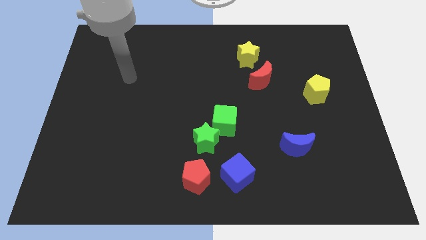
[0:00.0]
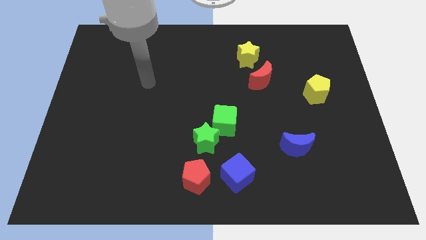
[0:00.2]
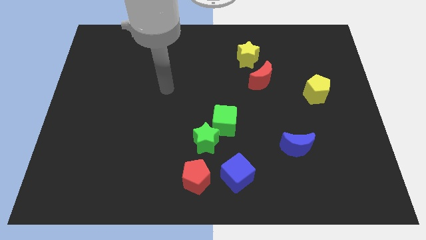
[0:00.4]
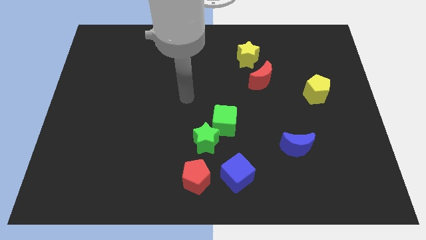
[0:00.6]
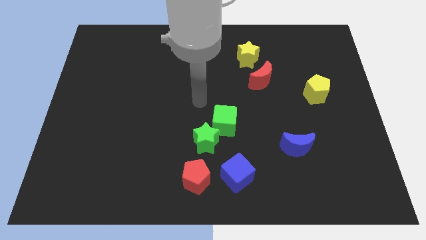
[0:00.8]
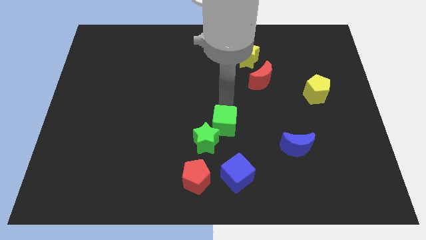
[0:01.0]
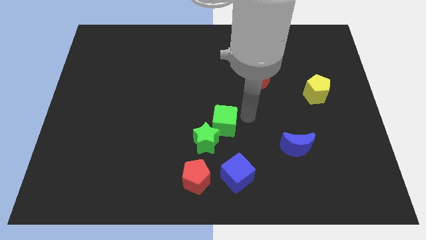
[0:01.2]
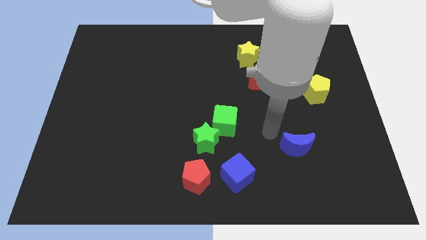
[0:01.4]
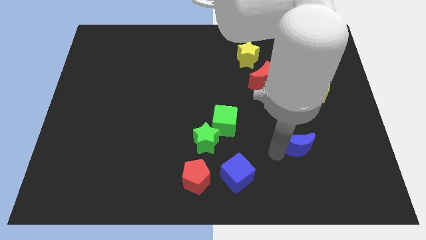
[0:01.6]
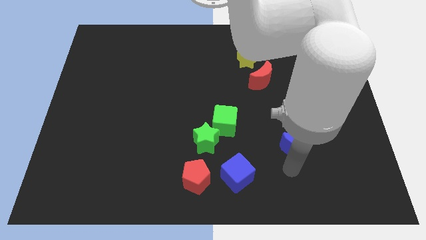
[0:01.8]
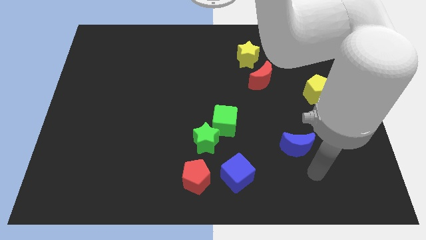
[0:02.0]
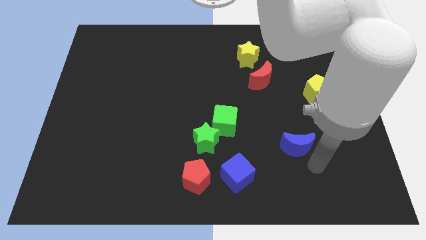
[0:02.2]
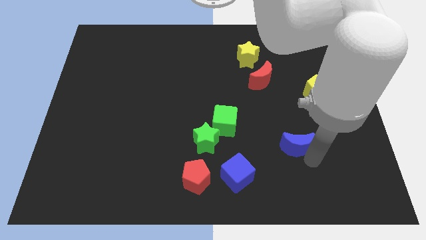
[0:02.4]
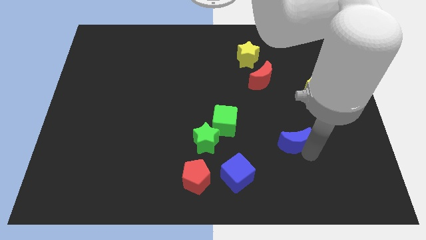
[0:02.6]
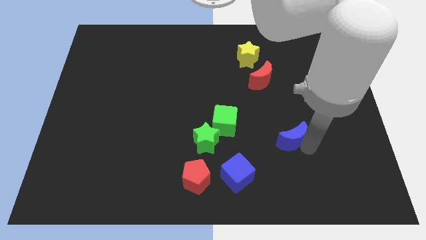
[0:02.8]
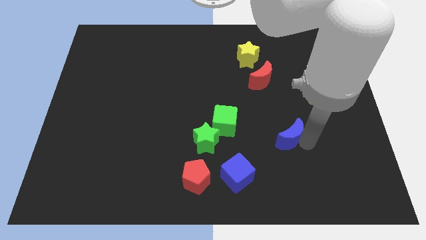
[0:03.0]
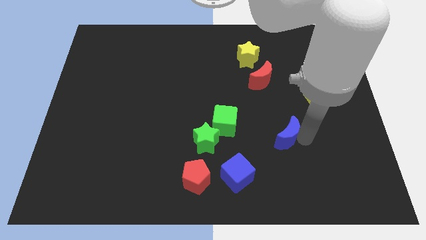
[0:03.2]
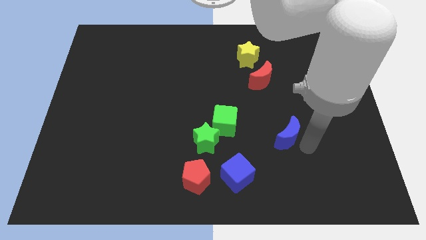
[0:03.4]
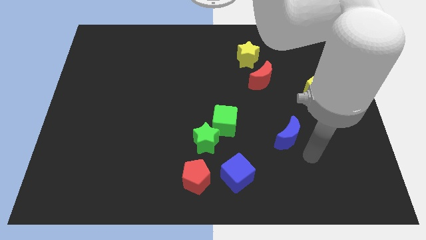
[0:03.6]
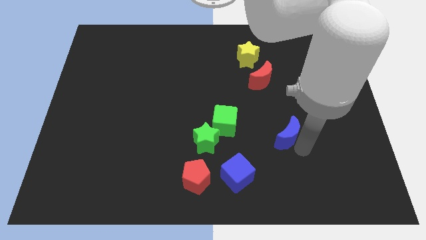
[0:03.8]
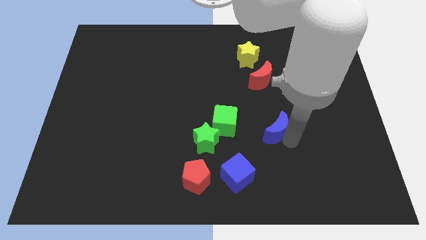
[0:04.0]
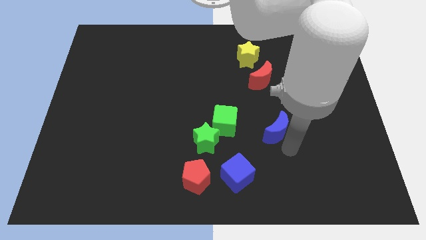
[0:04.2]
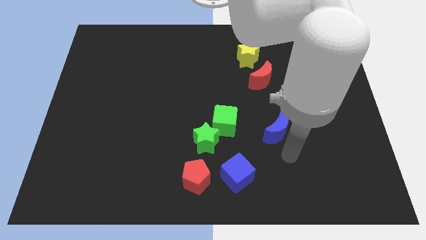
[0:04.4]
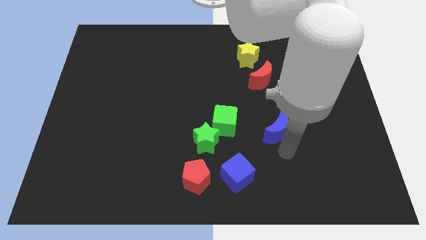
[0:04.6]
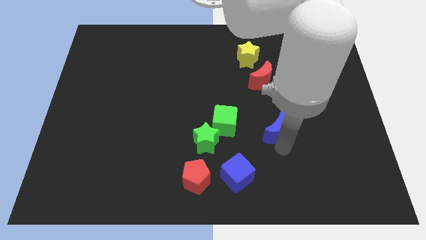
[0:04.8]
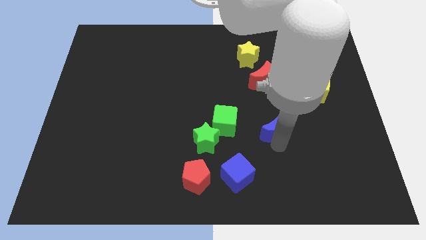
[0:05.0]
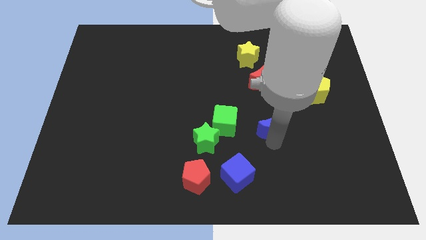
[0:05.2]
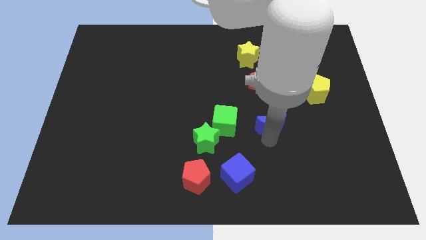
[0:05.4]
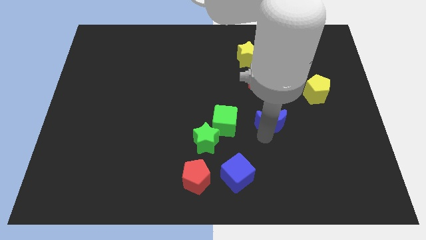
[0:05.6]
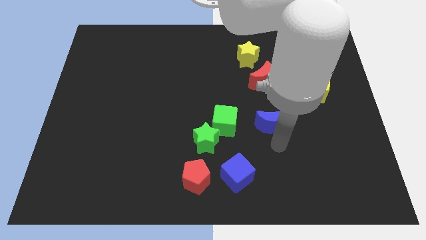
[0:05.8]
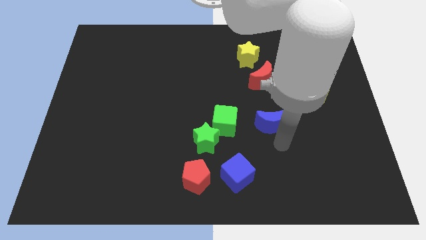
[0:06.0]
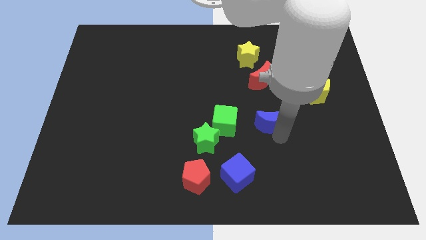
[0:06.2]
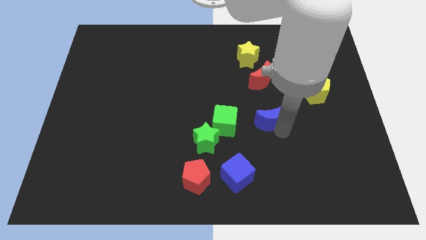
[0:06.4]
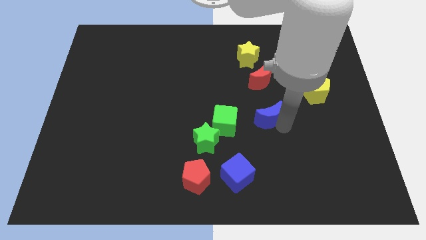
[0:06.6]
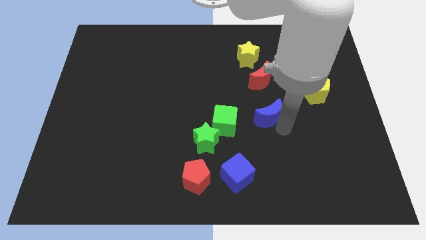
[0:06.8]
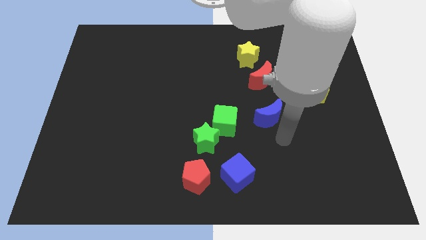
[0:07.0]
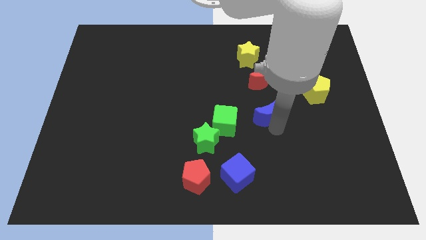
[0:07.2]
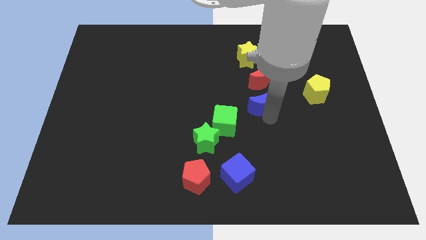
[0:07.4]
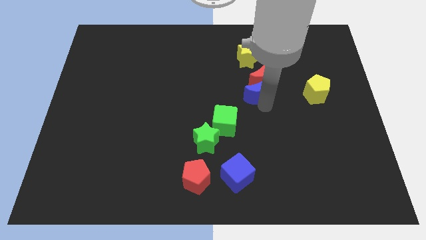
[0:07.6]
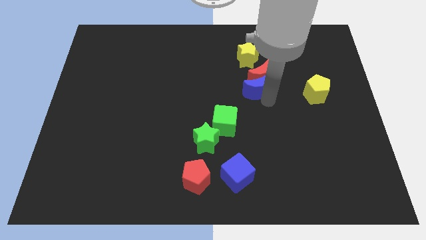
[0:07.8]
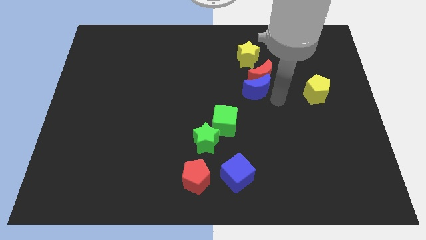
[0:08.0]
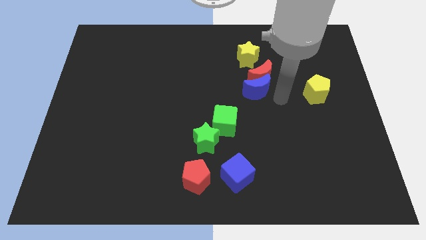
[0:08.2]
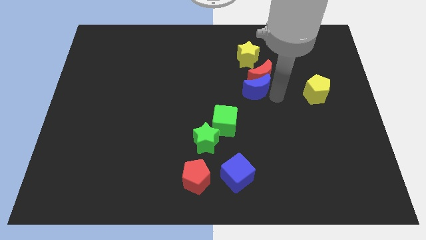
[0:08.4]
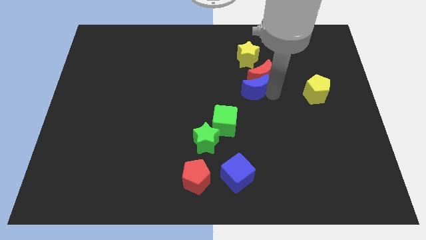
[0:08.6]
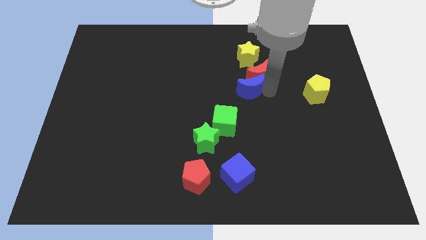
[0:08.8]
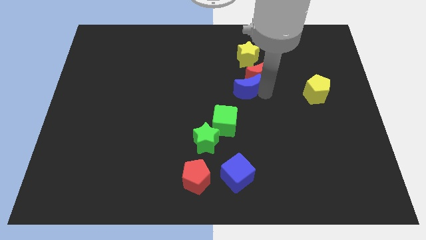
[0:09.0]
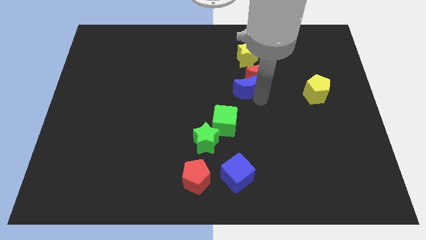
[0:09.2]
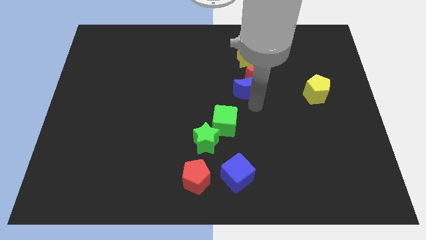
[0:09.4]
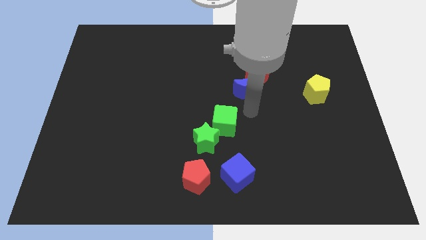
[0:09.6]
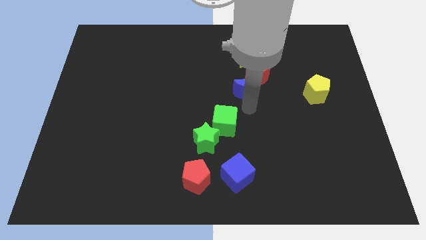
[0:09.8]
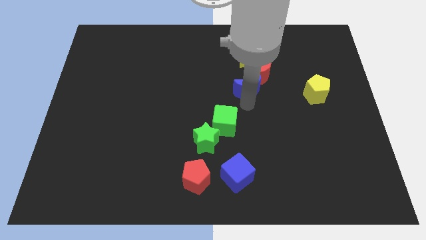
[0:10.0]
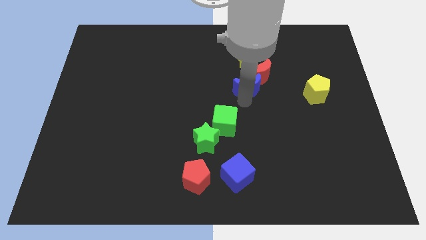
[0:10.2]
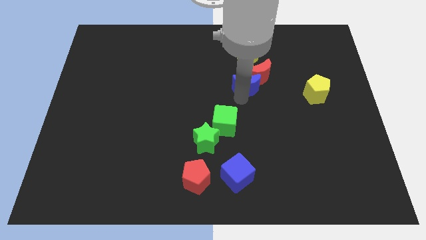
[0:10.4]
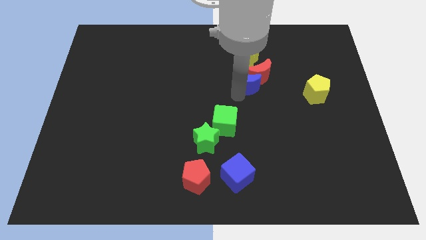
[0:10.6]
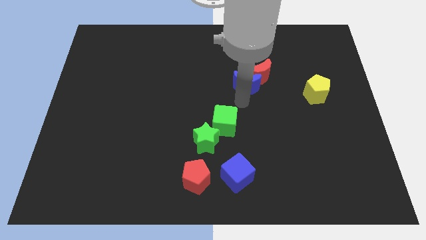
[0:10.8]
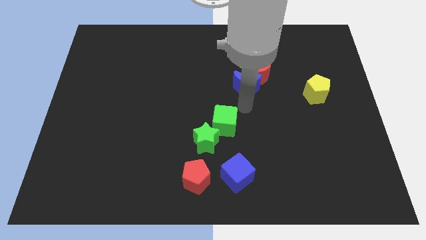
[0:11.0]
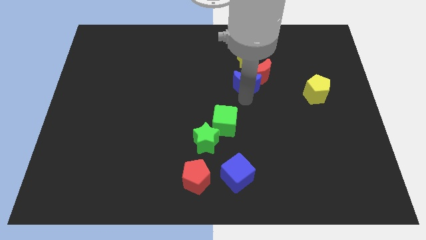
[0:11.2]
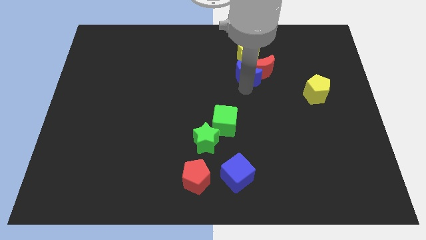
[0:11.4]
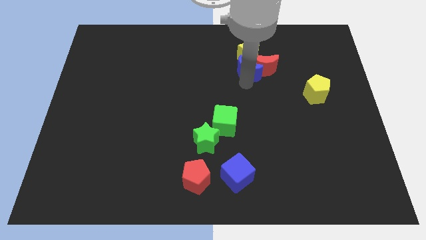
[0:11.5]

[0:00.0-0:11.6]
move the blue moon to the yellow star

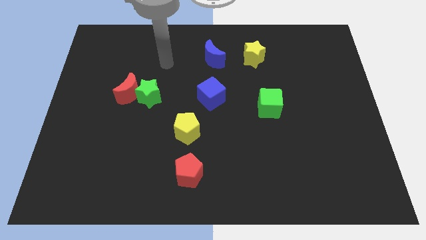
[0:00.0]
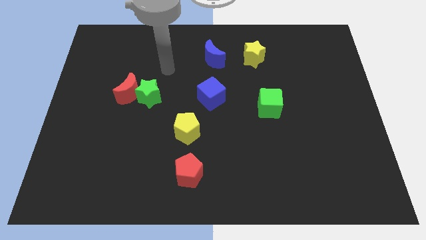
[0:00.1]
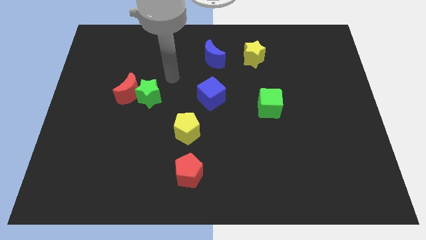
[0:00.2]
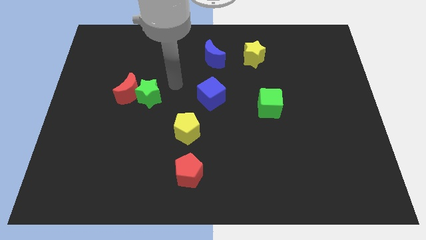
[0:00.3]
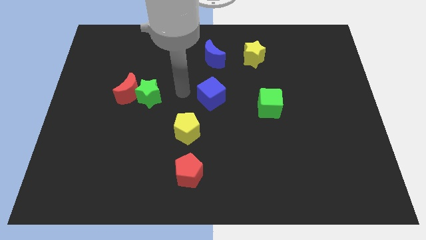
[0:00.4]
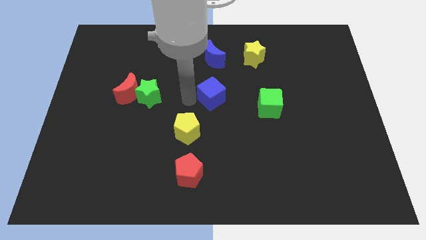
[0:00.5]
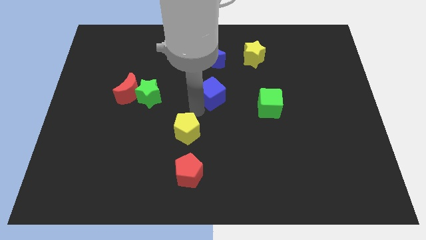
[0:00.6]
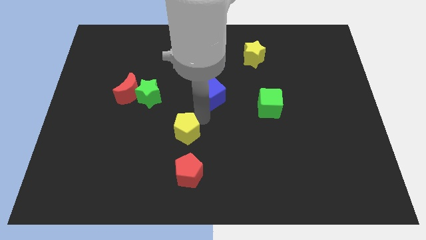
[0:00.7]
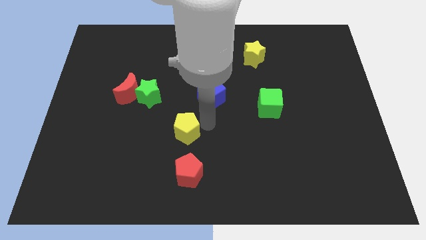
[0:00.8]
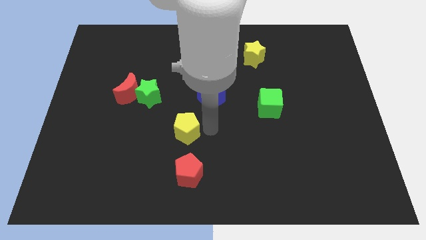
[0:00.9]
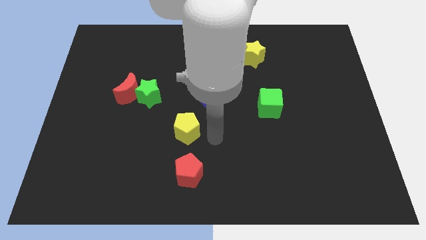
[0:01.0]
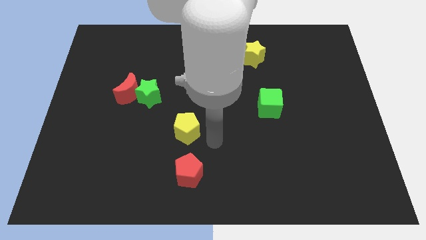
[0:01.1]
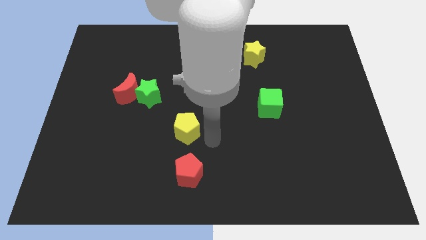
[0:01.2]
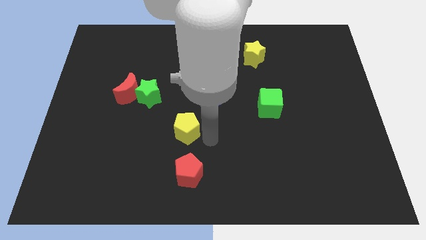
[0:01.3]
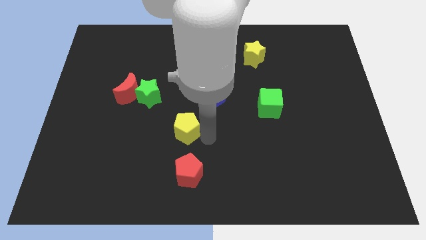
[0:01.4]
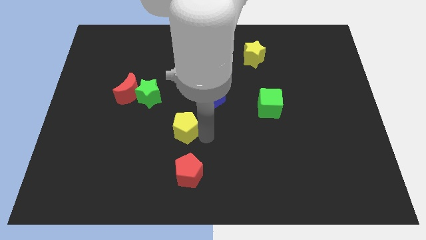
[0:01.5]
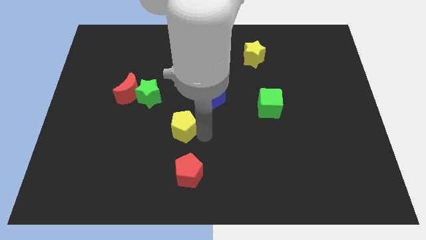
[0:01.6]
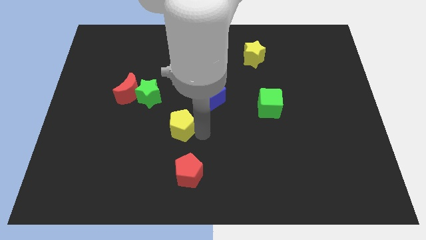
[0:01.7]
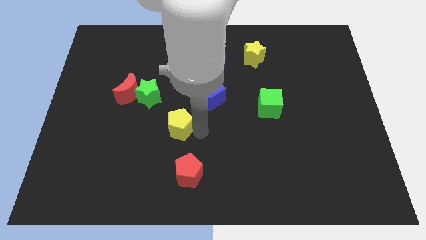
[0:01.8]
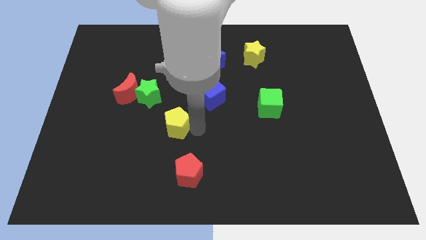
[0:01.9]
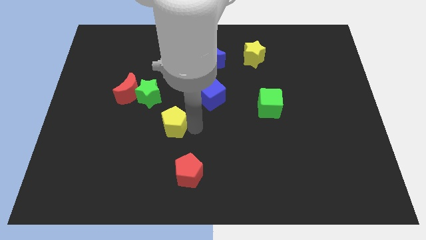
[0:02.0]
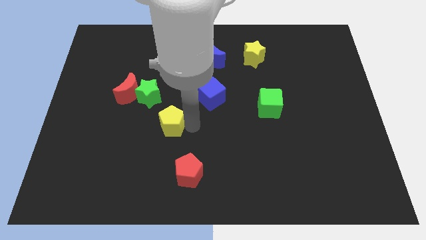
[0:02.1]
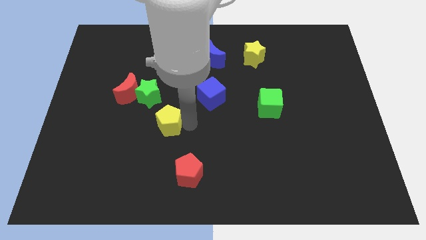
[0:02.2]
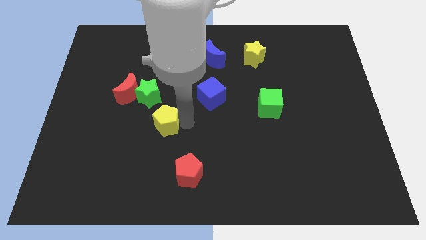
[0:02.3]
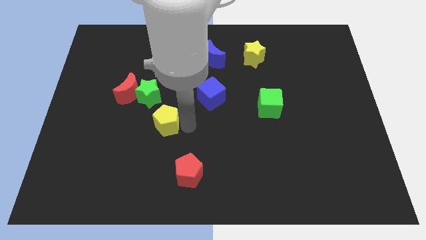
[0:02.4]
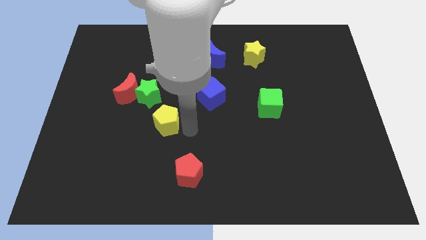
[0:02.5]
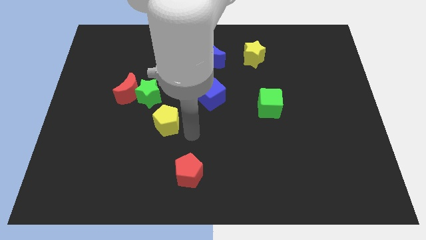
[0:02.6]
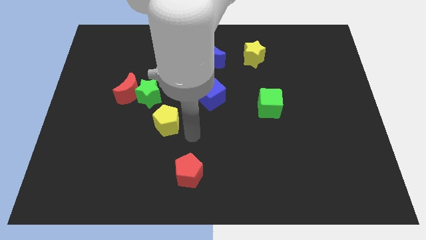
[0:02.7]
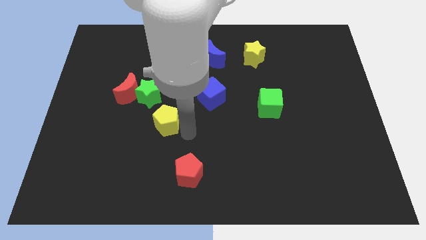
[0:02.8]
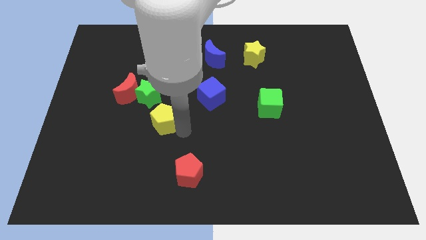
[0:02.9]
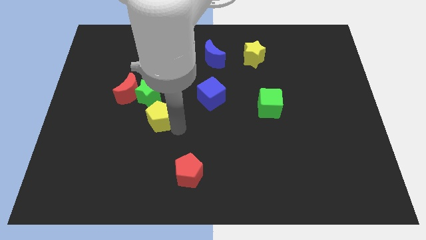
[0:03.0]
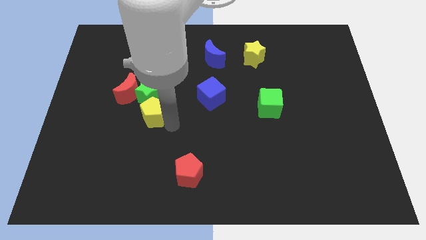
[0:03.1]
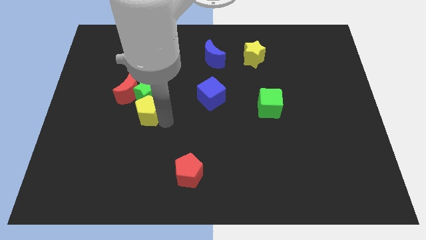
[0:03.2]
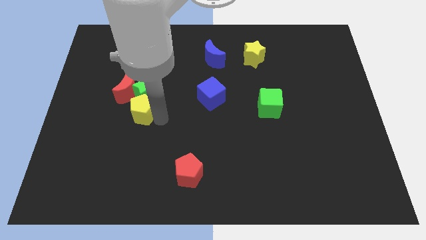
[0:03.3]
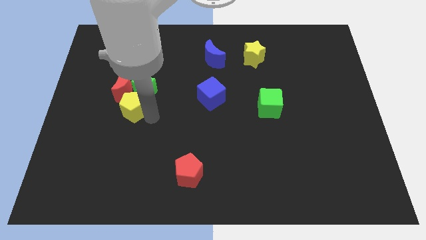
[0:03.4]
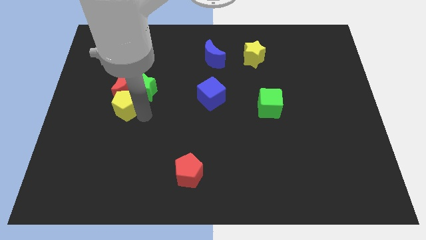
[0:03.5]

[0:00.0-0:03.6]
push the yellow pentagon to the red moon
